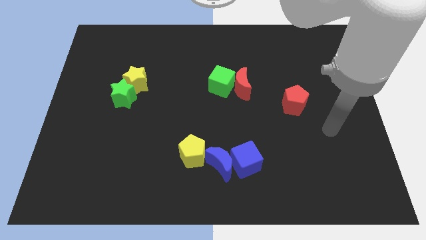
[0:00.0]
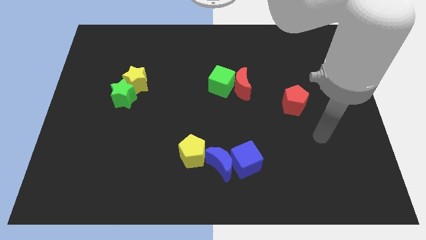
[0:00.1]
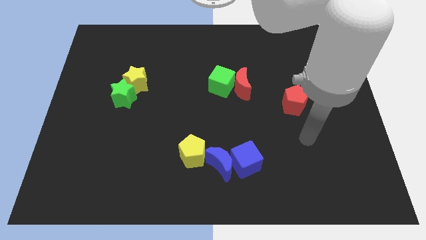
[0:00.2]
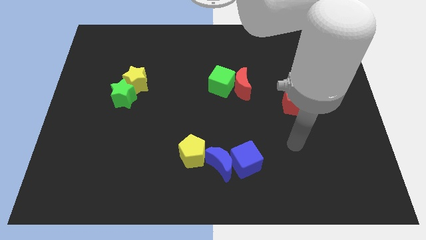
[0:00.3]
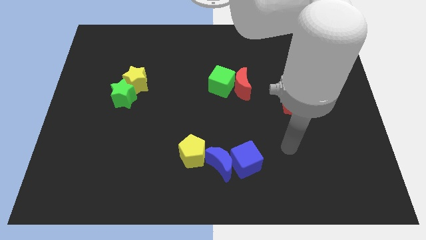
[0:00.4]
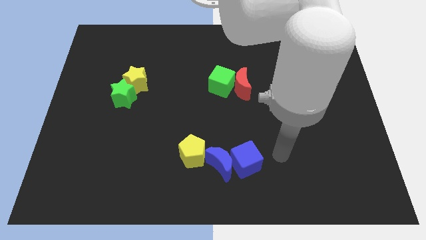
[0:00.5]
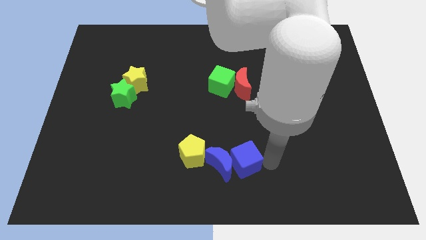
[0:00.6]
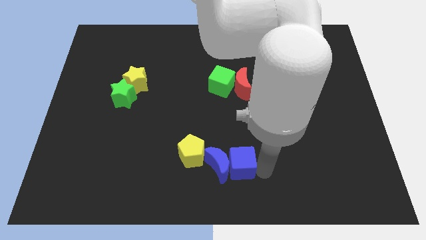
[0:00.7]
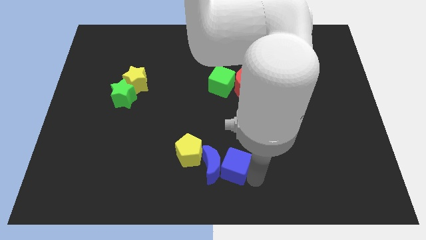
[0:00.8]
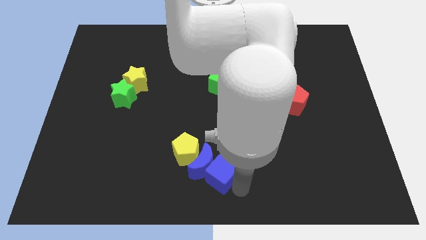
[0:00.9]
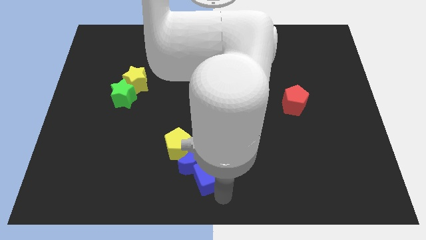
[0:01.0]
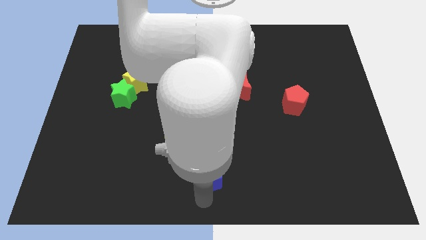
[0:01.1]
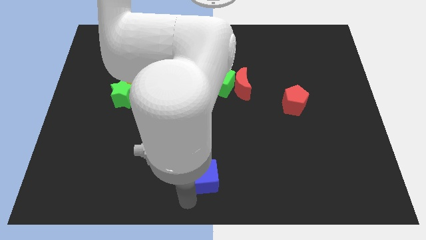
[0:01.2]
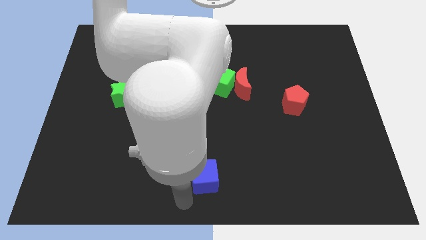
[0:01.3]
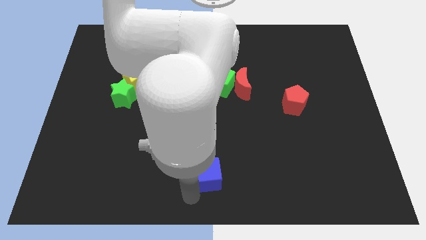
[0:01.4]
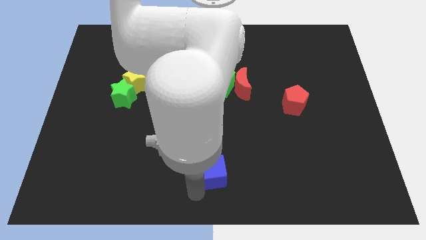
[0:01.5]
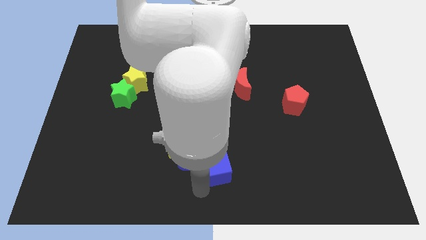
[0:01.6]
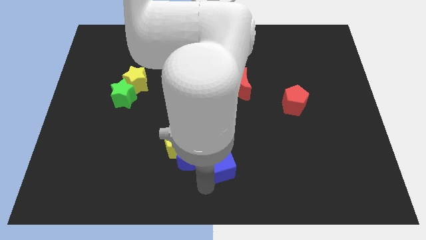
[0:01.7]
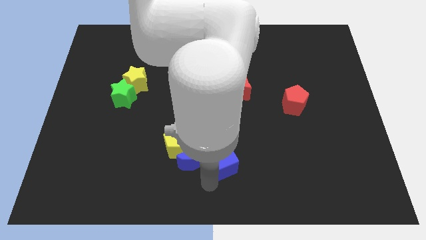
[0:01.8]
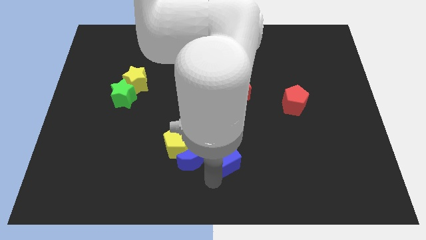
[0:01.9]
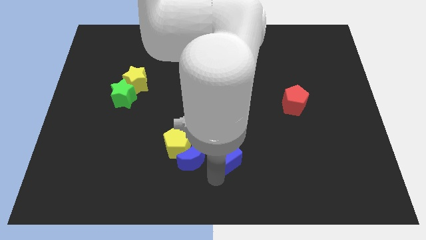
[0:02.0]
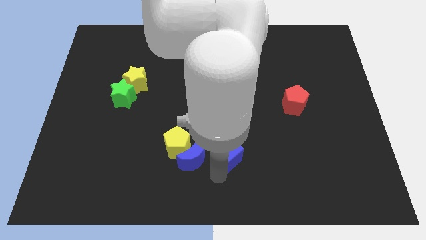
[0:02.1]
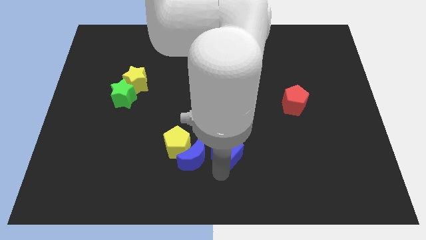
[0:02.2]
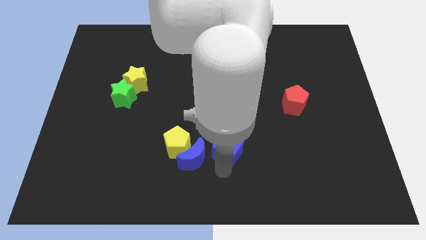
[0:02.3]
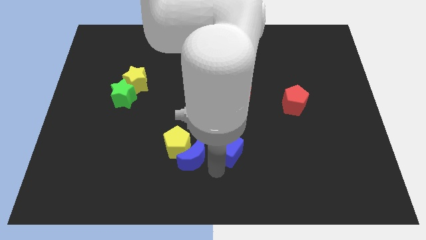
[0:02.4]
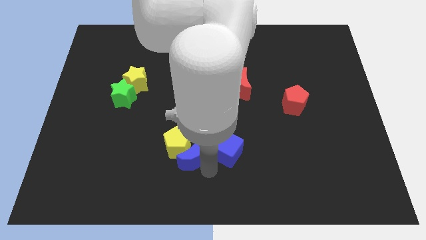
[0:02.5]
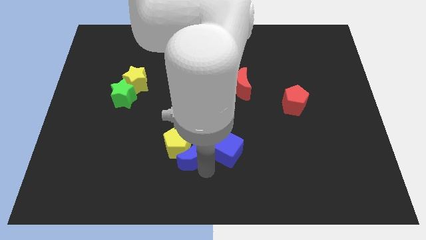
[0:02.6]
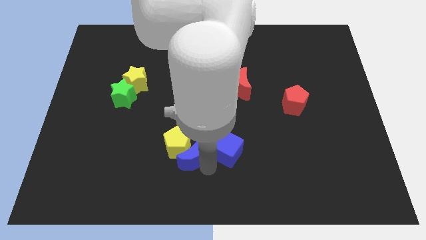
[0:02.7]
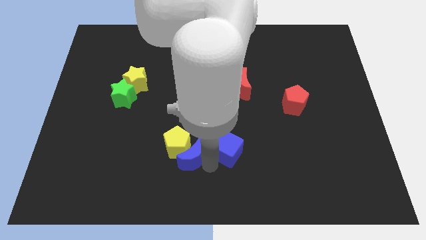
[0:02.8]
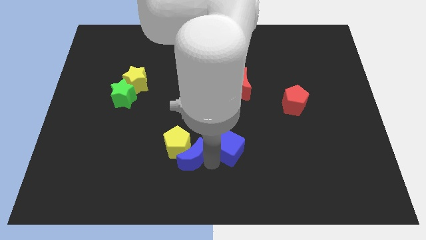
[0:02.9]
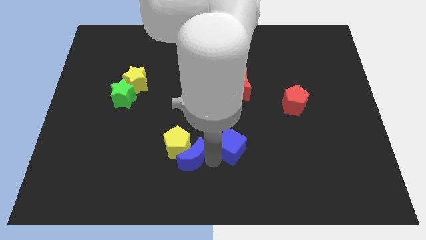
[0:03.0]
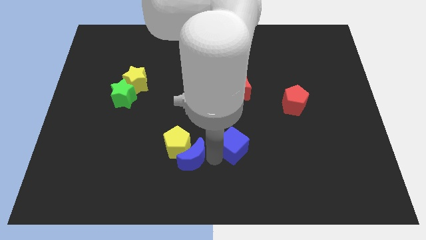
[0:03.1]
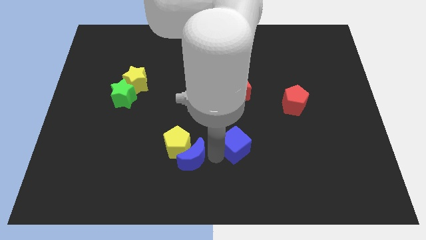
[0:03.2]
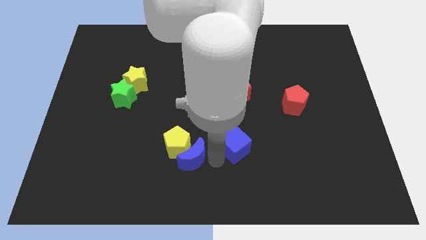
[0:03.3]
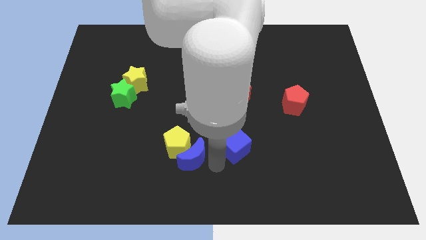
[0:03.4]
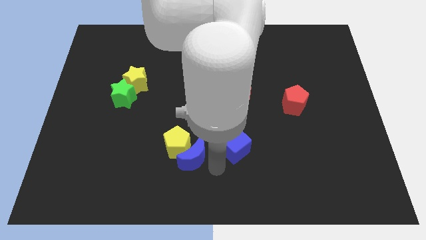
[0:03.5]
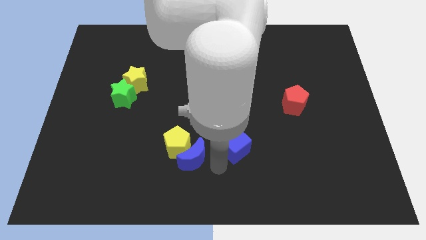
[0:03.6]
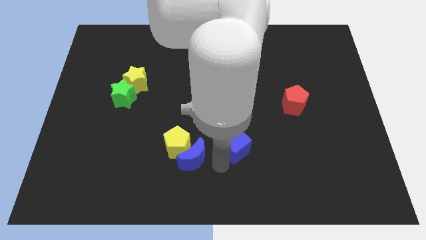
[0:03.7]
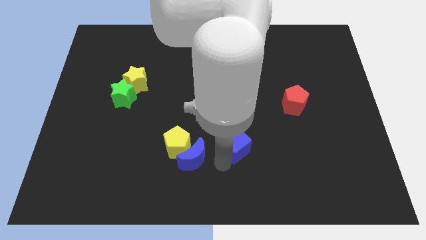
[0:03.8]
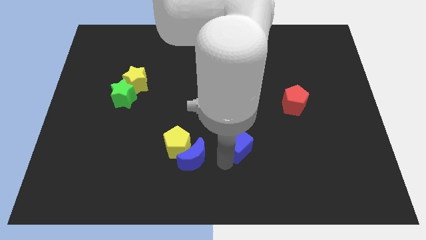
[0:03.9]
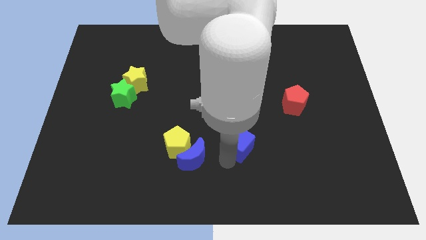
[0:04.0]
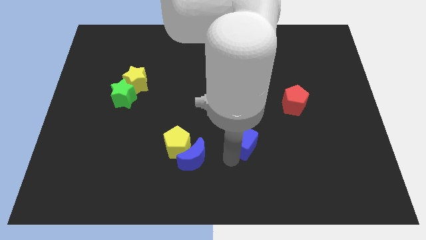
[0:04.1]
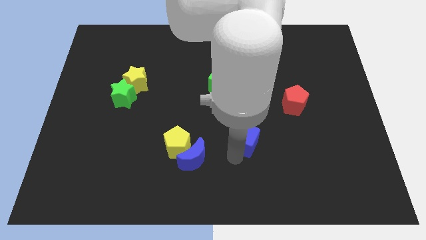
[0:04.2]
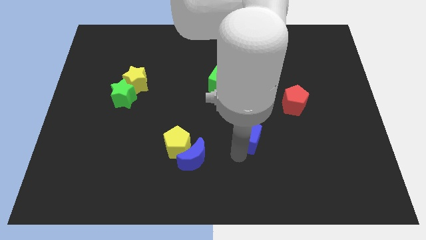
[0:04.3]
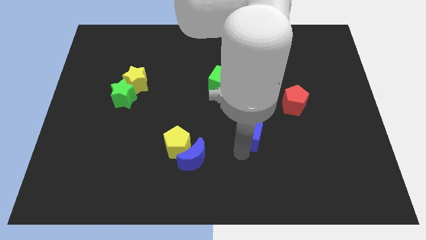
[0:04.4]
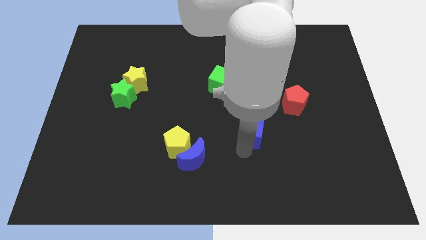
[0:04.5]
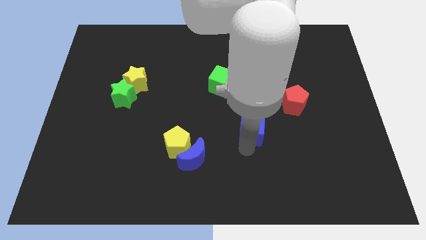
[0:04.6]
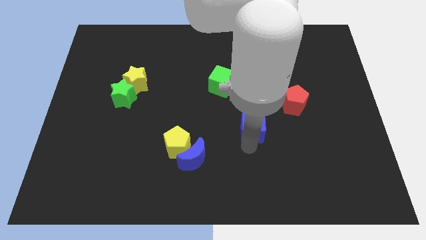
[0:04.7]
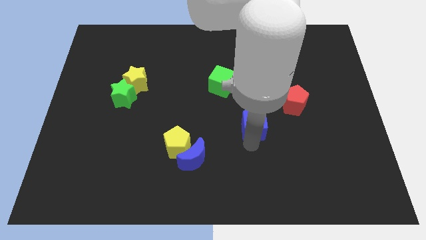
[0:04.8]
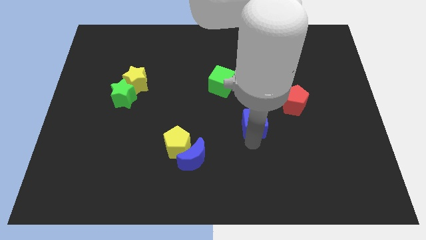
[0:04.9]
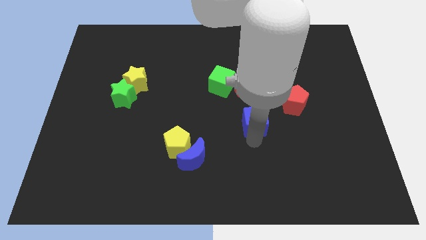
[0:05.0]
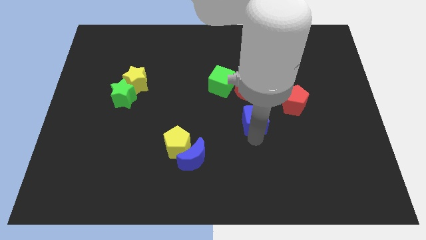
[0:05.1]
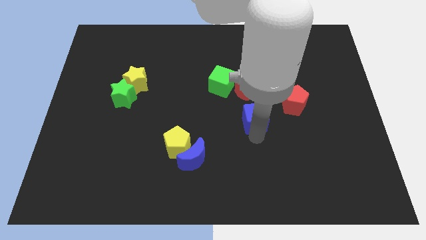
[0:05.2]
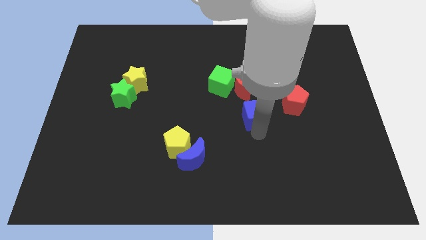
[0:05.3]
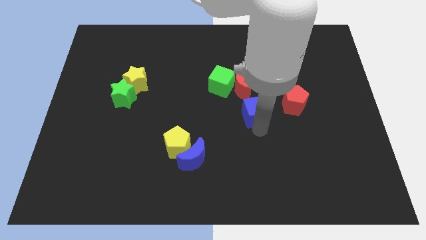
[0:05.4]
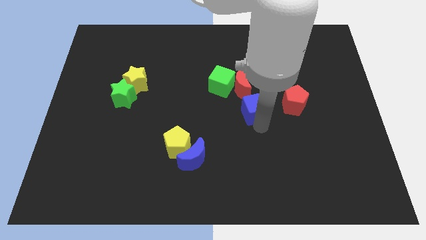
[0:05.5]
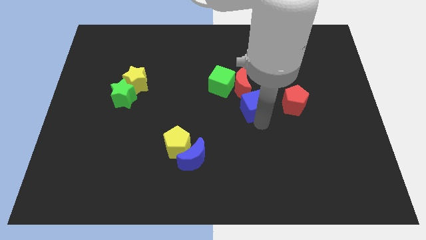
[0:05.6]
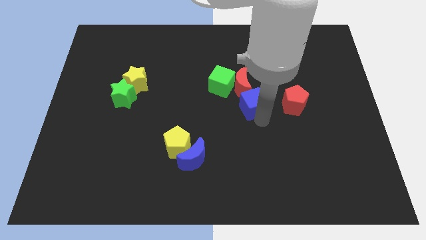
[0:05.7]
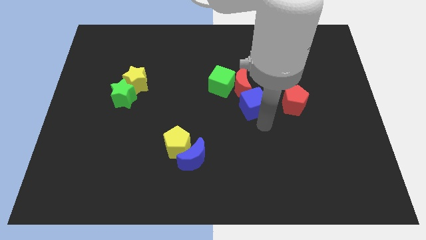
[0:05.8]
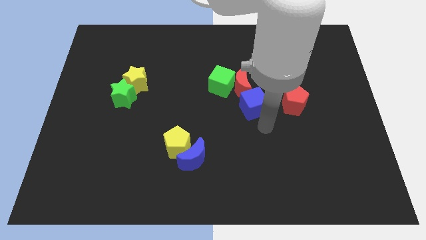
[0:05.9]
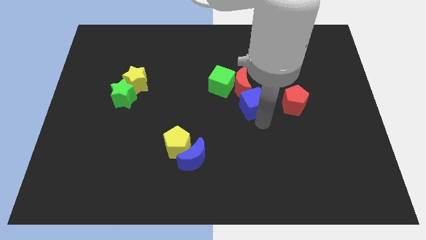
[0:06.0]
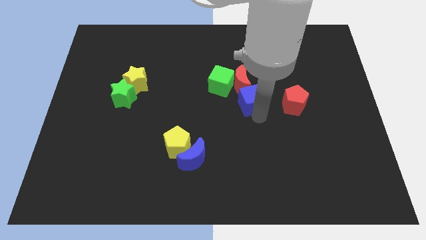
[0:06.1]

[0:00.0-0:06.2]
push the blue cube towards the red moon

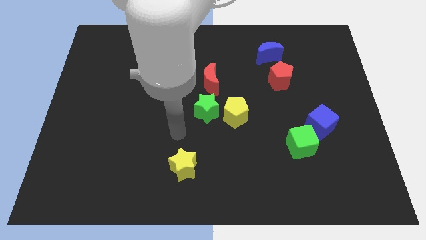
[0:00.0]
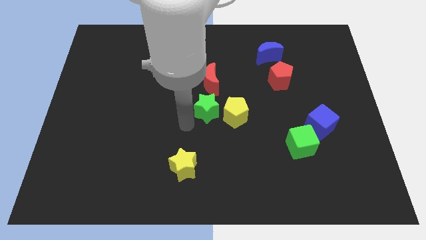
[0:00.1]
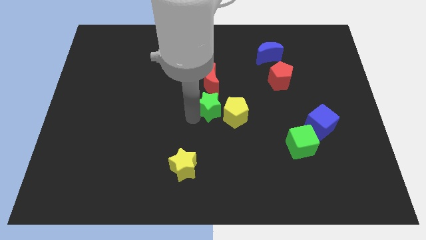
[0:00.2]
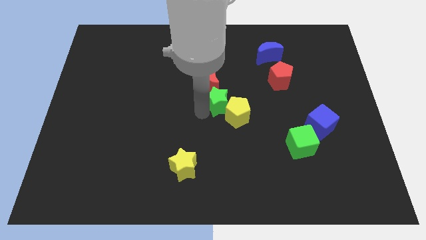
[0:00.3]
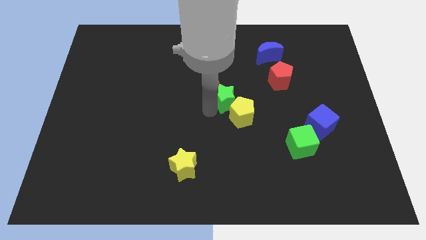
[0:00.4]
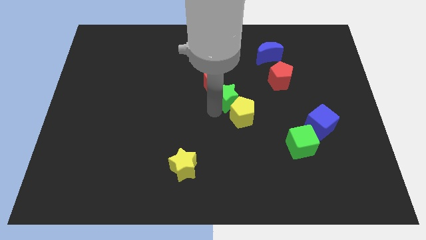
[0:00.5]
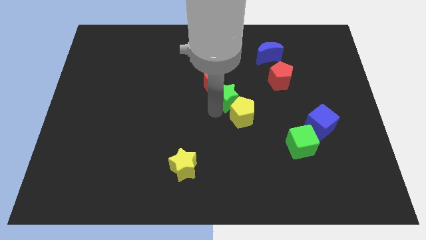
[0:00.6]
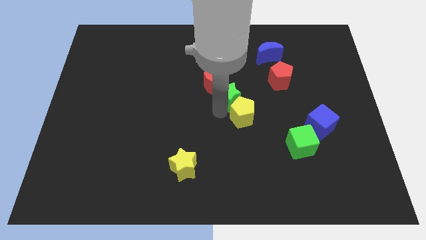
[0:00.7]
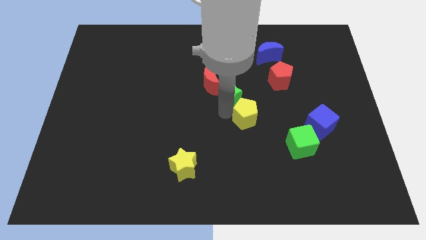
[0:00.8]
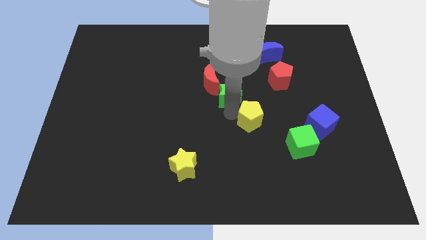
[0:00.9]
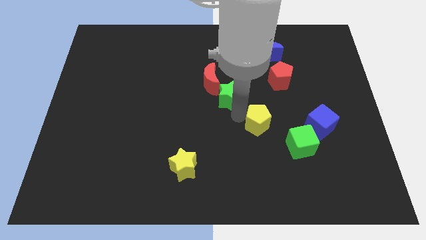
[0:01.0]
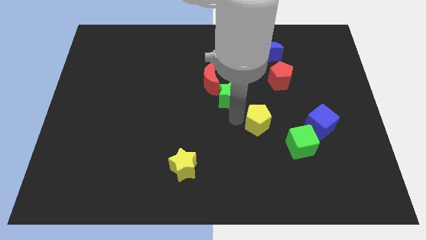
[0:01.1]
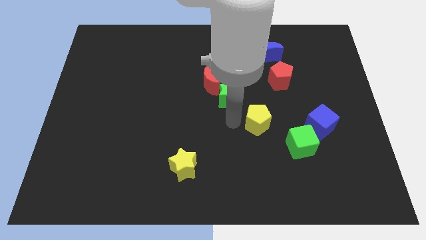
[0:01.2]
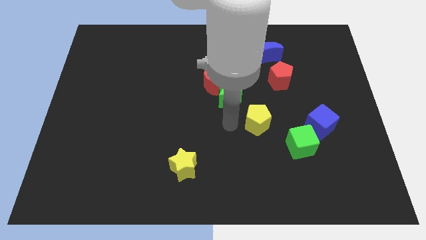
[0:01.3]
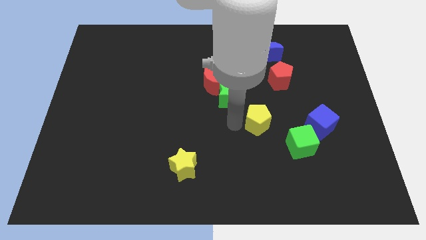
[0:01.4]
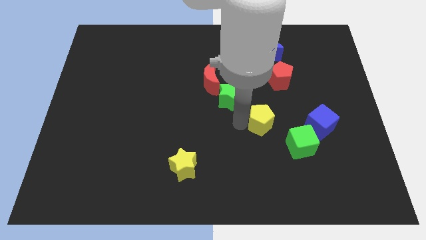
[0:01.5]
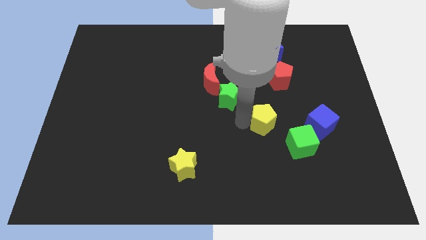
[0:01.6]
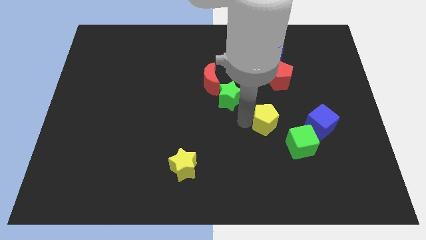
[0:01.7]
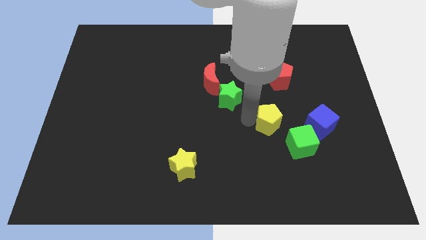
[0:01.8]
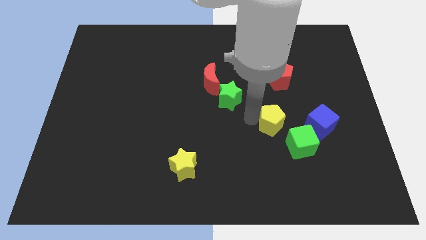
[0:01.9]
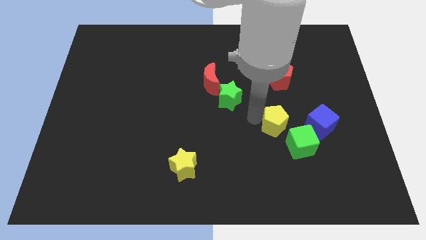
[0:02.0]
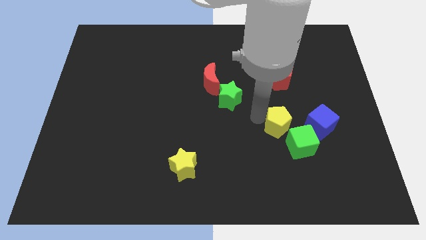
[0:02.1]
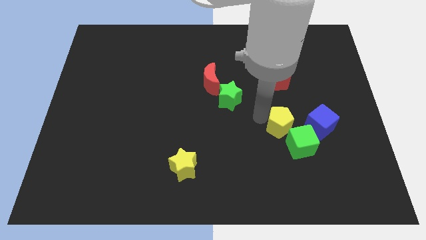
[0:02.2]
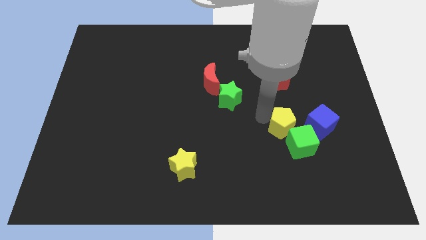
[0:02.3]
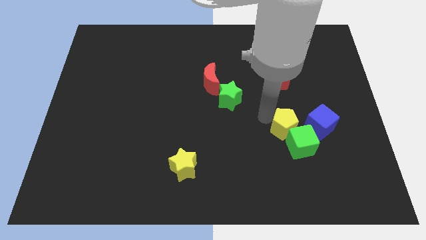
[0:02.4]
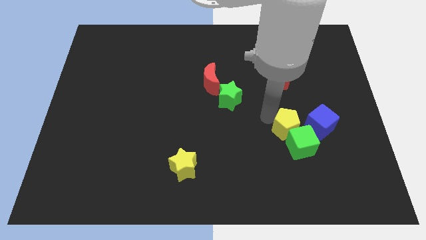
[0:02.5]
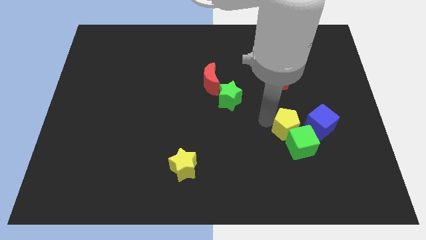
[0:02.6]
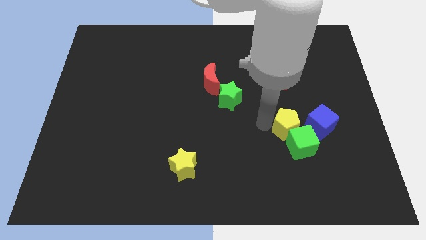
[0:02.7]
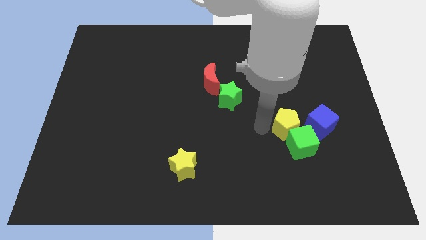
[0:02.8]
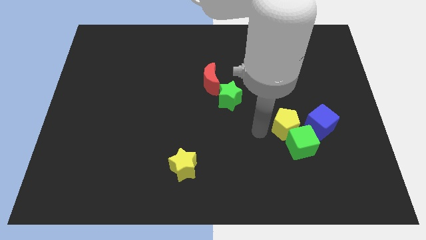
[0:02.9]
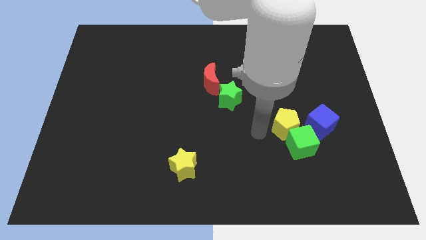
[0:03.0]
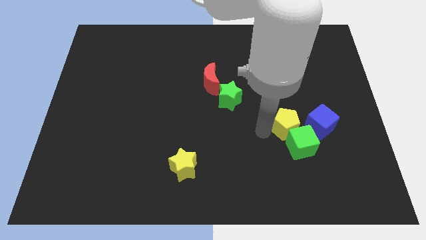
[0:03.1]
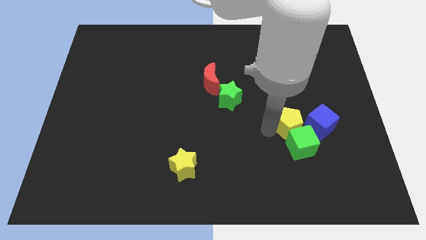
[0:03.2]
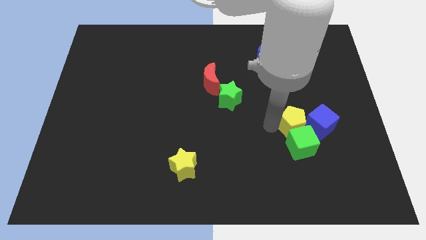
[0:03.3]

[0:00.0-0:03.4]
slide the yellow pentagon close to the blue cube
